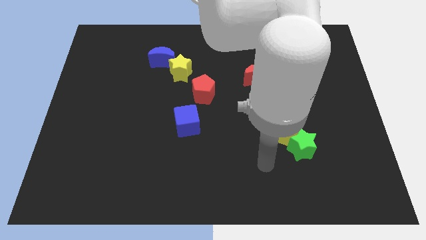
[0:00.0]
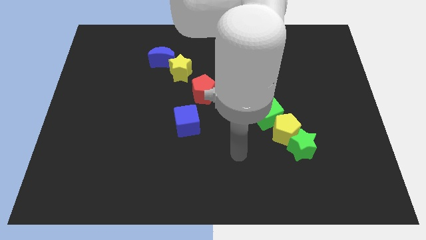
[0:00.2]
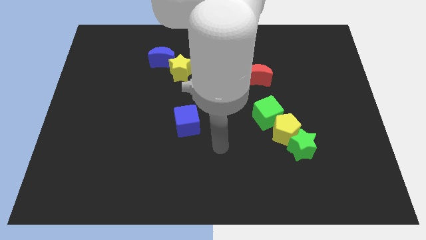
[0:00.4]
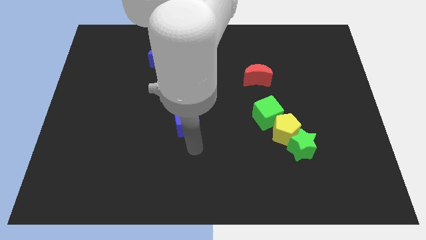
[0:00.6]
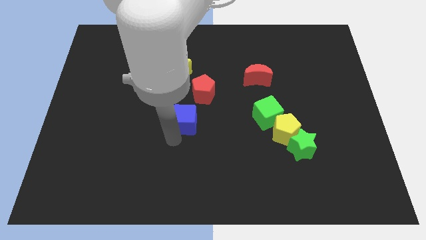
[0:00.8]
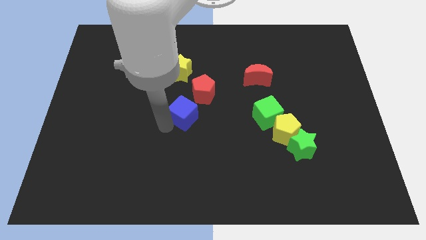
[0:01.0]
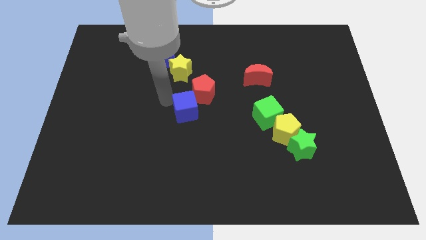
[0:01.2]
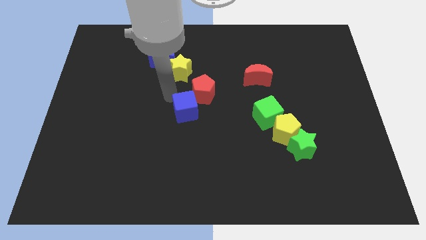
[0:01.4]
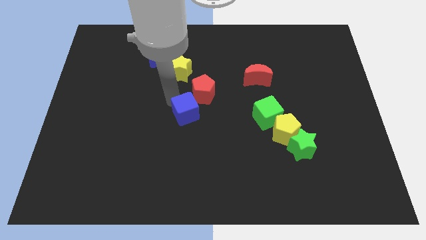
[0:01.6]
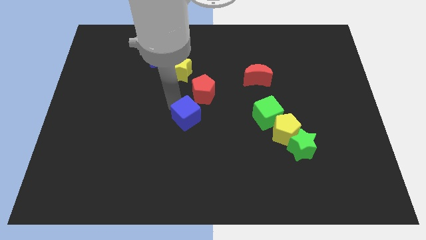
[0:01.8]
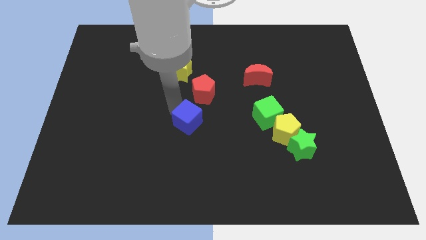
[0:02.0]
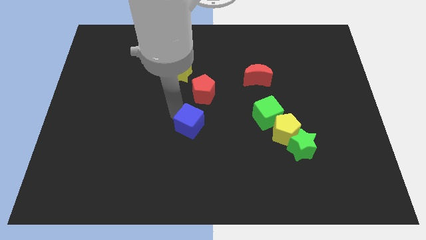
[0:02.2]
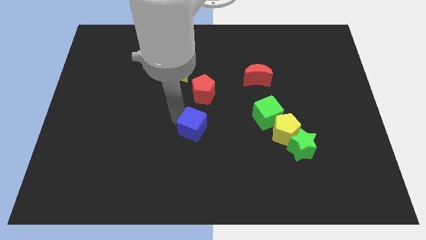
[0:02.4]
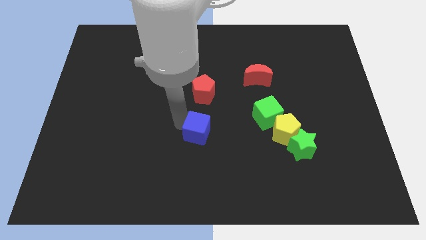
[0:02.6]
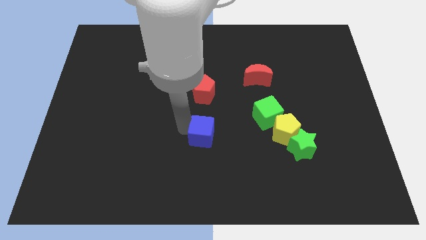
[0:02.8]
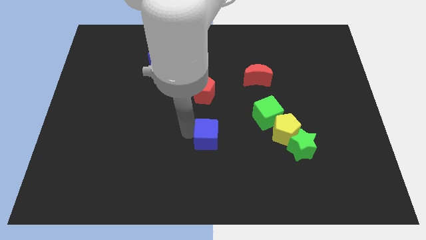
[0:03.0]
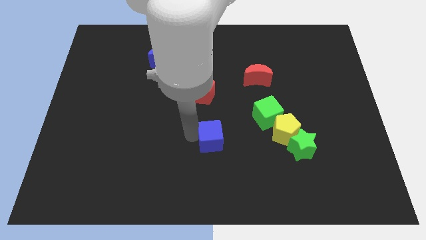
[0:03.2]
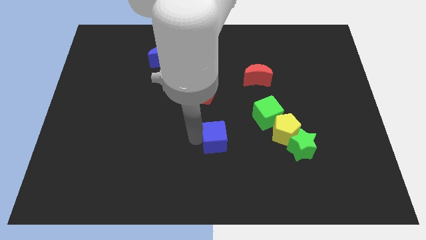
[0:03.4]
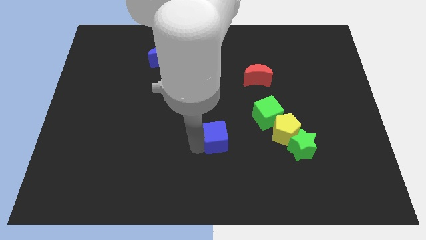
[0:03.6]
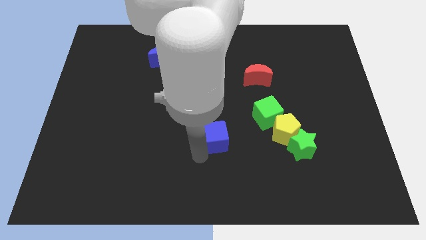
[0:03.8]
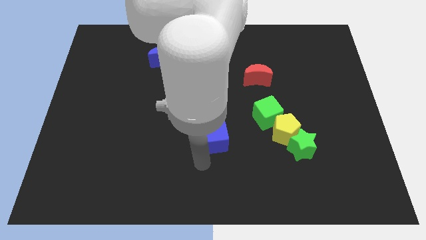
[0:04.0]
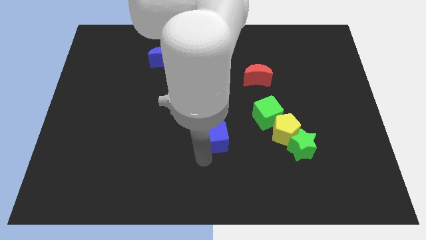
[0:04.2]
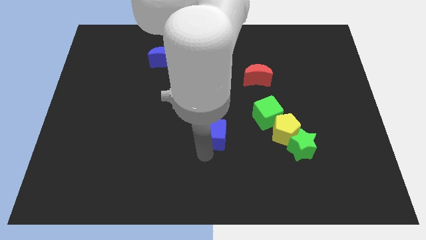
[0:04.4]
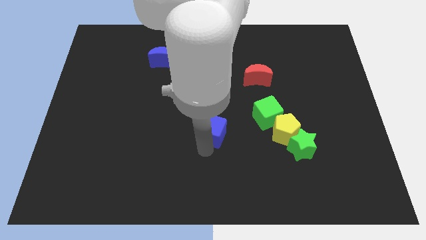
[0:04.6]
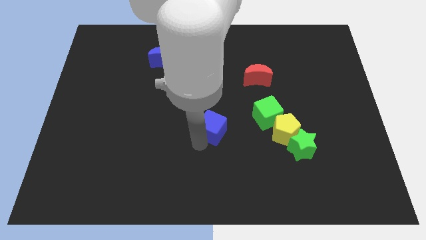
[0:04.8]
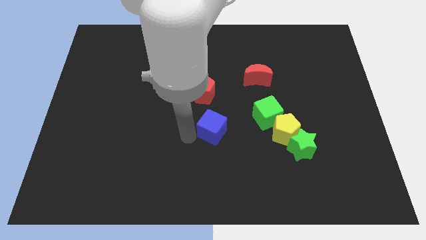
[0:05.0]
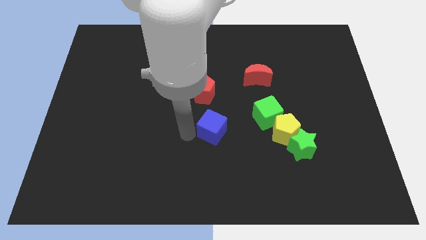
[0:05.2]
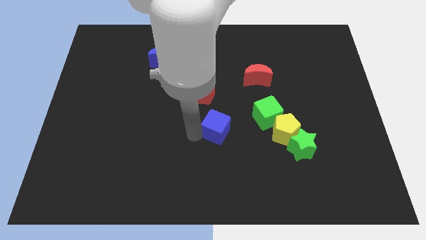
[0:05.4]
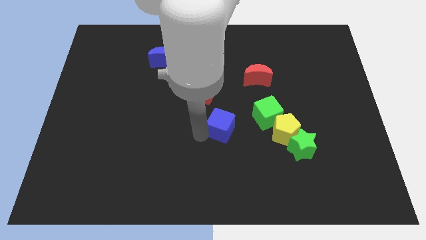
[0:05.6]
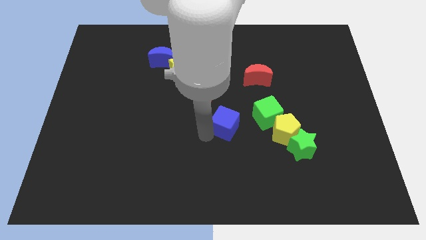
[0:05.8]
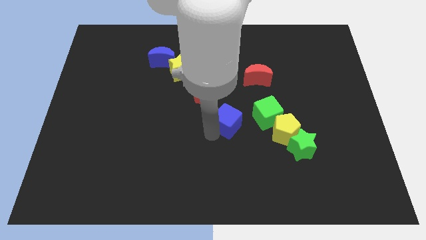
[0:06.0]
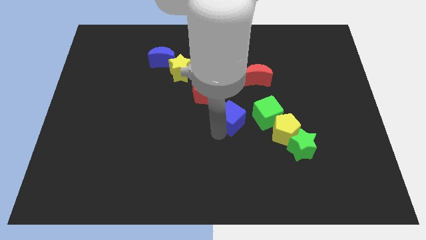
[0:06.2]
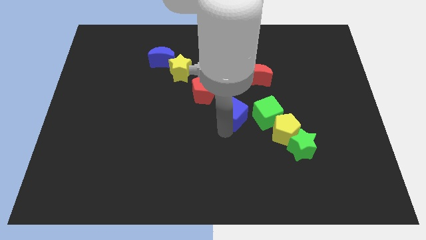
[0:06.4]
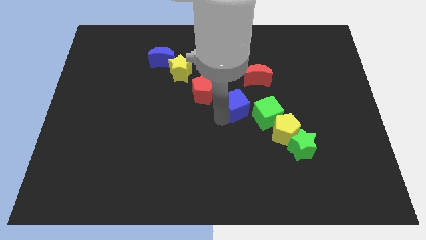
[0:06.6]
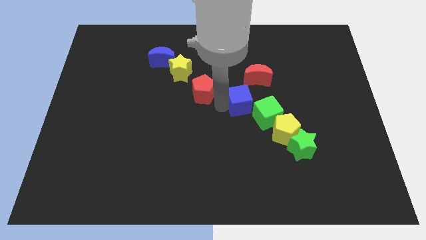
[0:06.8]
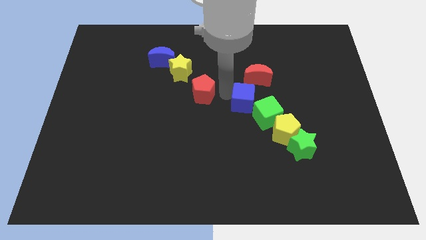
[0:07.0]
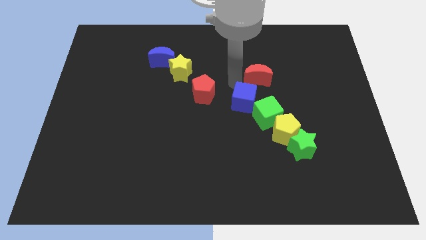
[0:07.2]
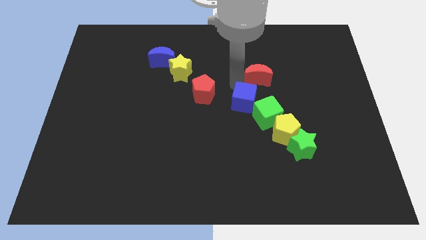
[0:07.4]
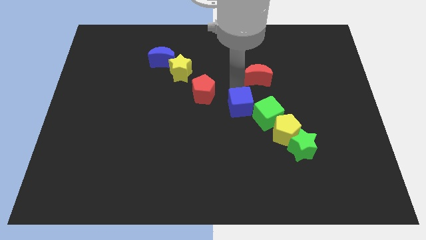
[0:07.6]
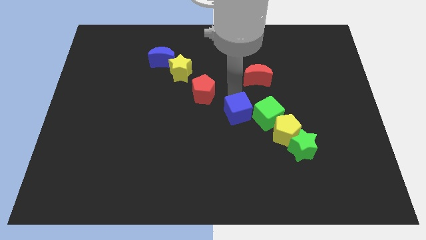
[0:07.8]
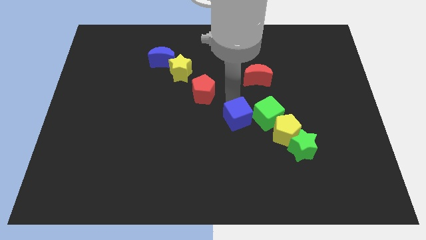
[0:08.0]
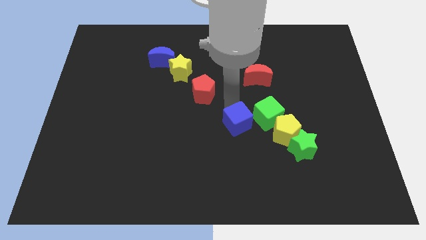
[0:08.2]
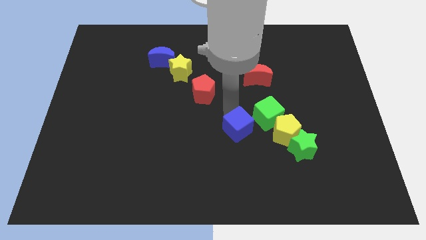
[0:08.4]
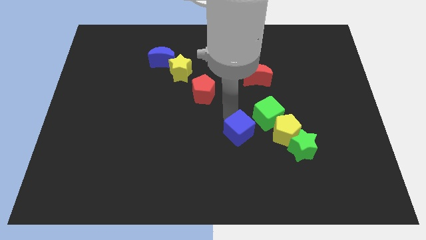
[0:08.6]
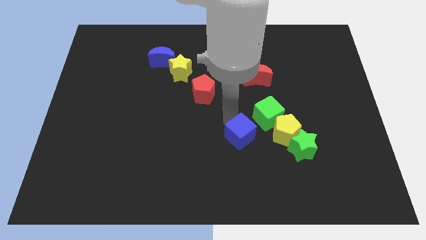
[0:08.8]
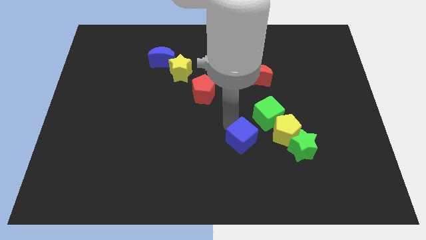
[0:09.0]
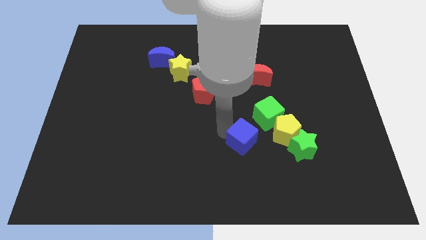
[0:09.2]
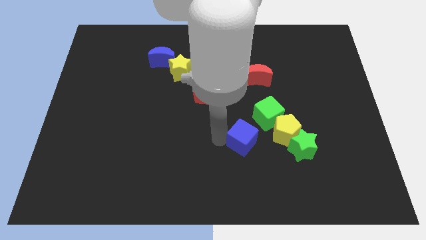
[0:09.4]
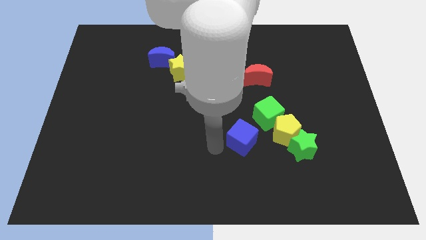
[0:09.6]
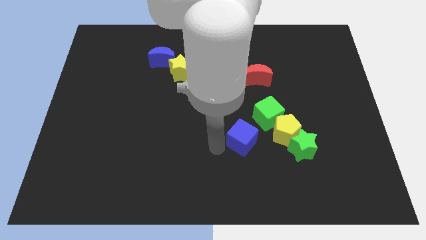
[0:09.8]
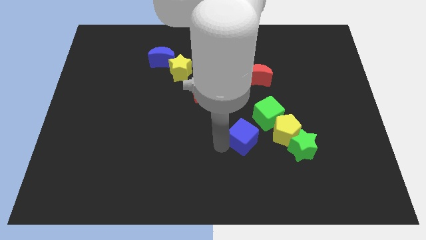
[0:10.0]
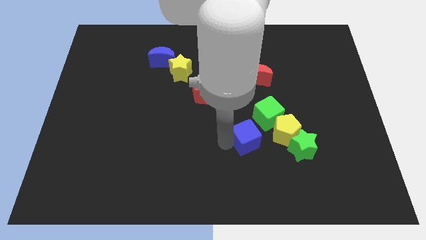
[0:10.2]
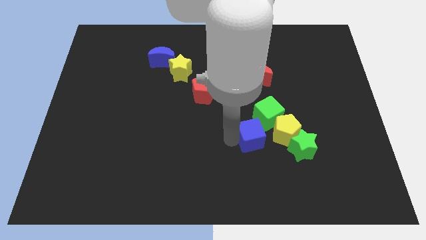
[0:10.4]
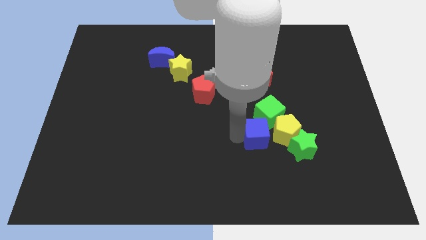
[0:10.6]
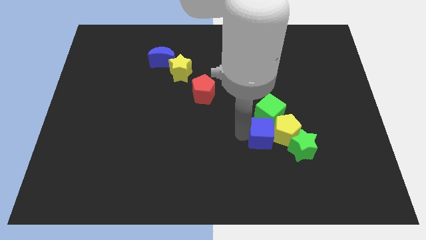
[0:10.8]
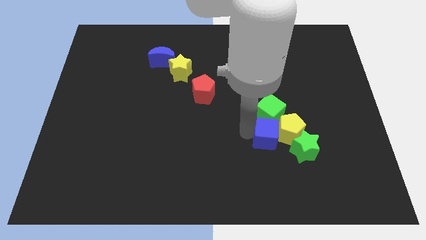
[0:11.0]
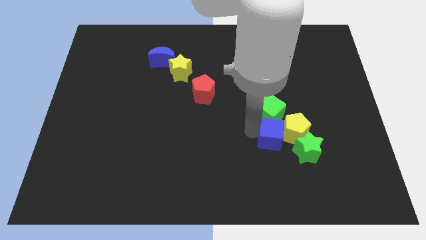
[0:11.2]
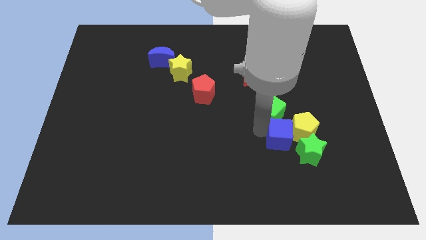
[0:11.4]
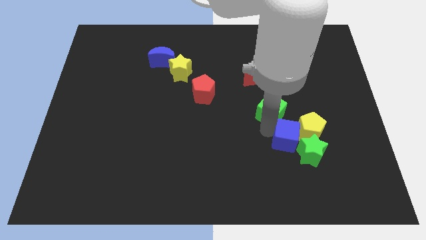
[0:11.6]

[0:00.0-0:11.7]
push the blue cube to the green star

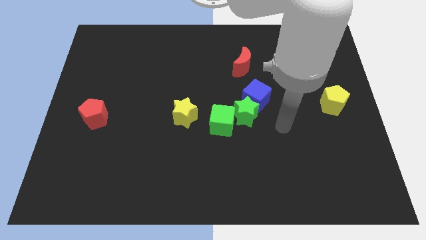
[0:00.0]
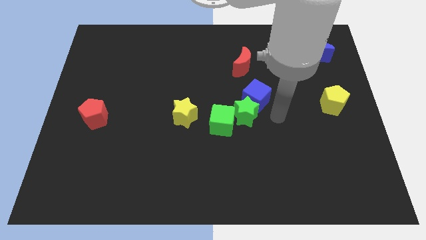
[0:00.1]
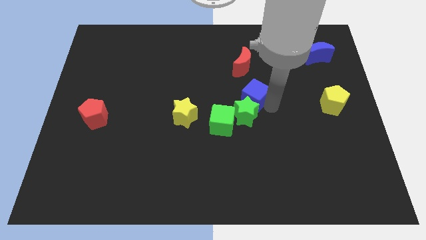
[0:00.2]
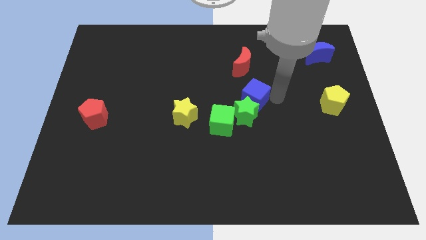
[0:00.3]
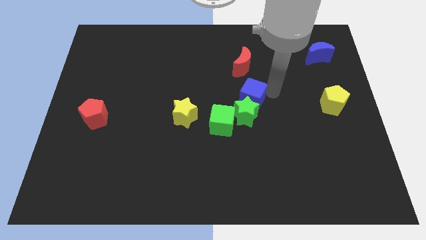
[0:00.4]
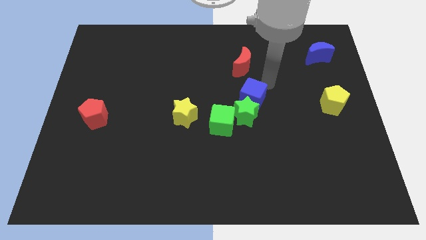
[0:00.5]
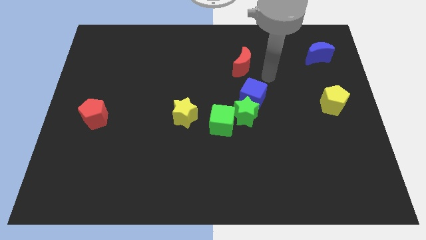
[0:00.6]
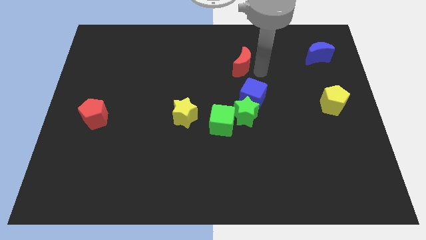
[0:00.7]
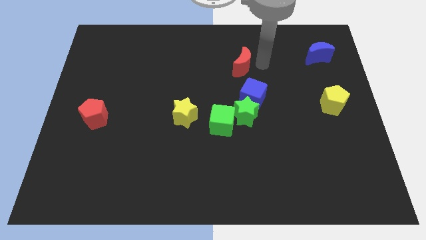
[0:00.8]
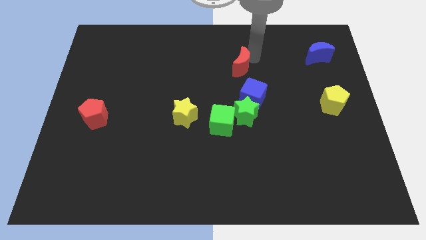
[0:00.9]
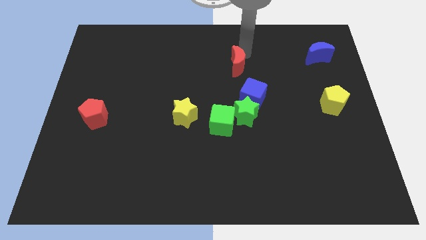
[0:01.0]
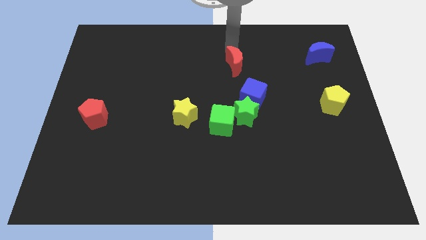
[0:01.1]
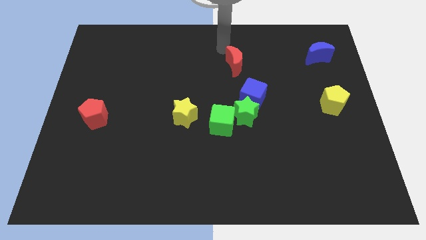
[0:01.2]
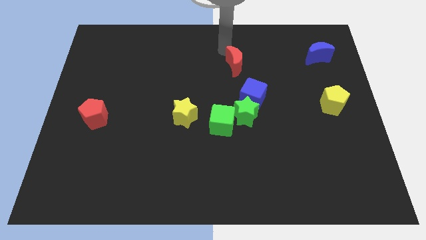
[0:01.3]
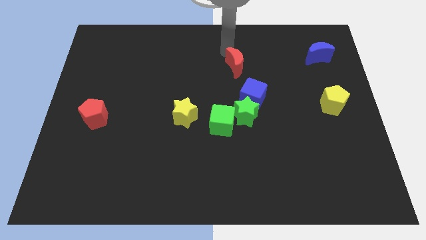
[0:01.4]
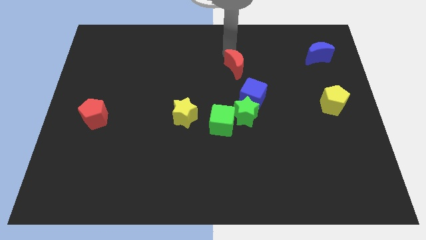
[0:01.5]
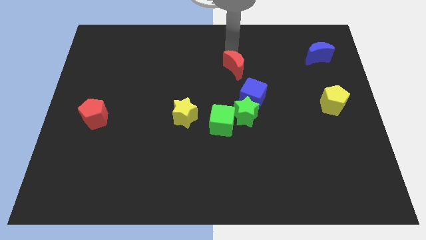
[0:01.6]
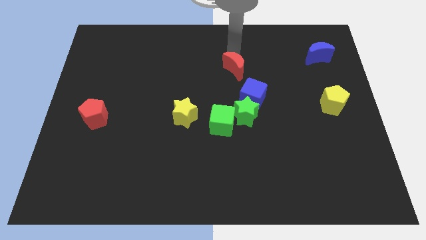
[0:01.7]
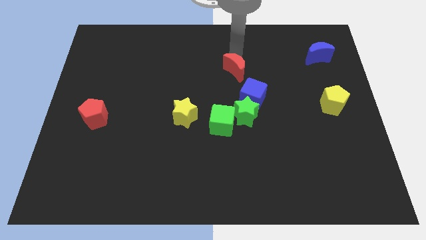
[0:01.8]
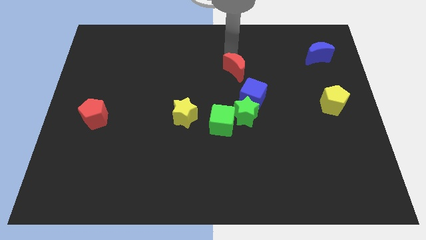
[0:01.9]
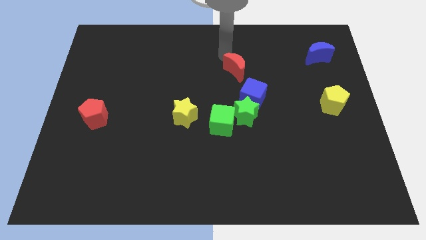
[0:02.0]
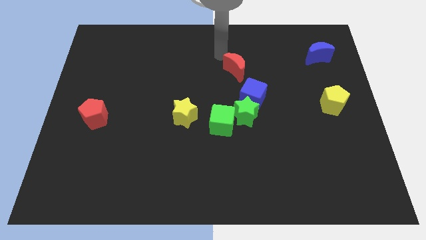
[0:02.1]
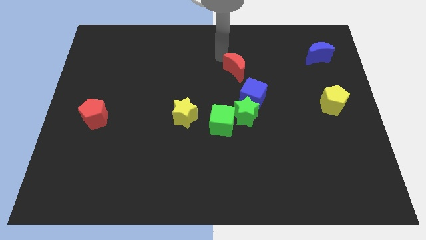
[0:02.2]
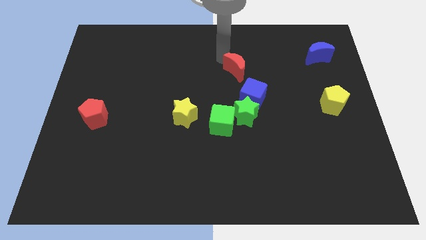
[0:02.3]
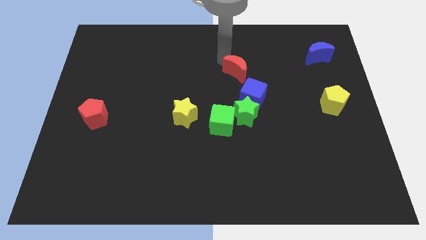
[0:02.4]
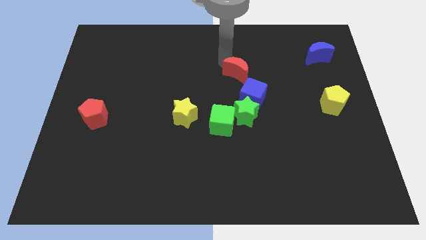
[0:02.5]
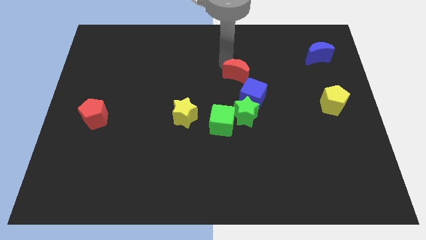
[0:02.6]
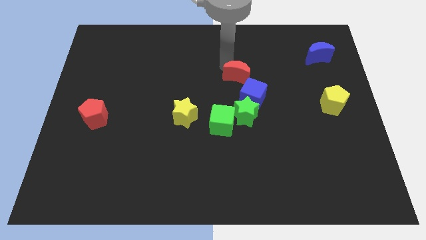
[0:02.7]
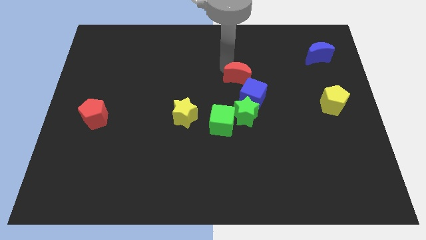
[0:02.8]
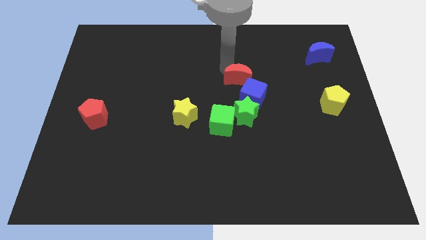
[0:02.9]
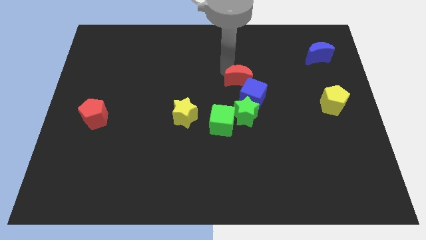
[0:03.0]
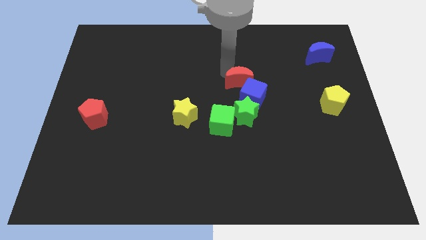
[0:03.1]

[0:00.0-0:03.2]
put the red moon to the blue cube
